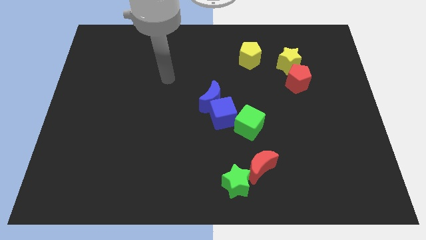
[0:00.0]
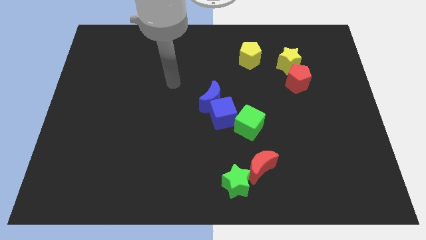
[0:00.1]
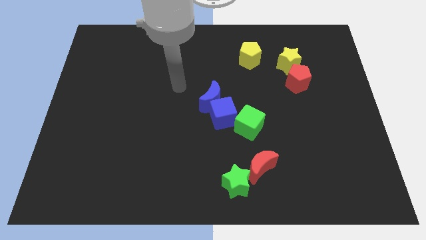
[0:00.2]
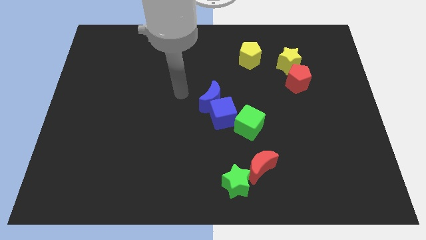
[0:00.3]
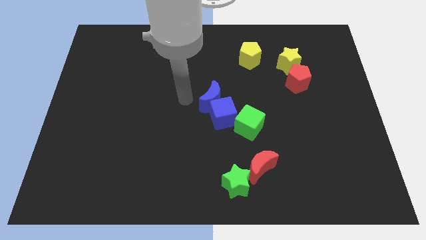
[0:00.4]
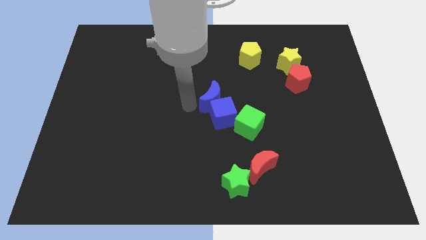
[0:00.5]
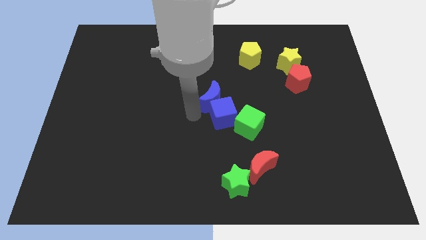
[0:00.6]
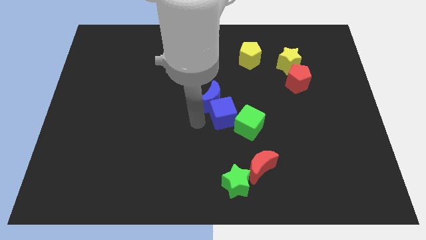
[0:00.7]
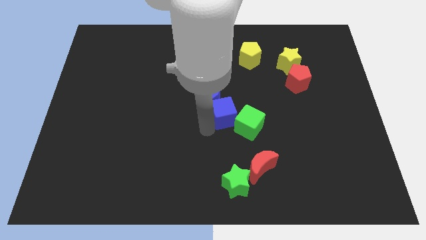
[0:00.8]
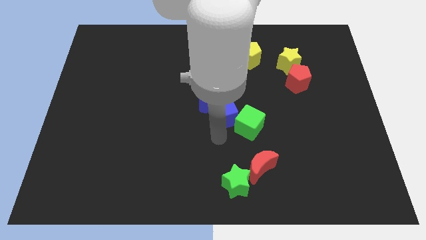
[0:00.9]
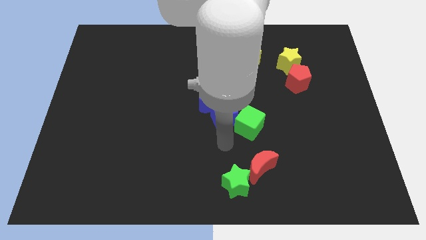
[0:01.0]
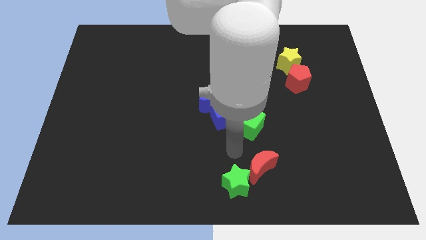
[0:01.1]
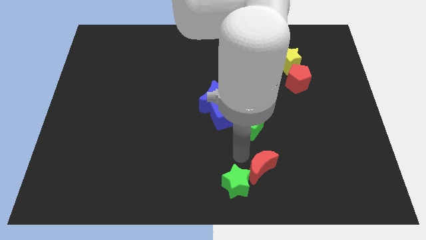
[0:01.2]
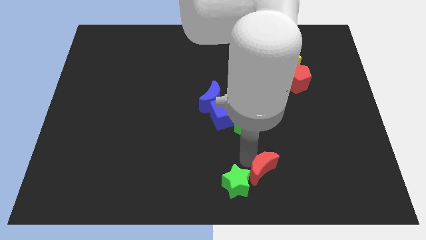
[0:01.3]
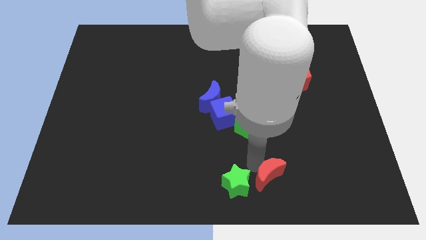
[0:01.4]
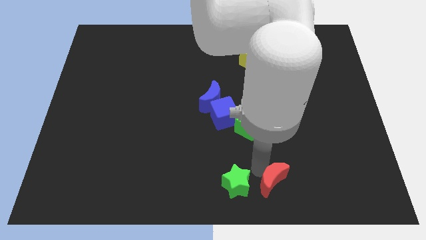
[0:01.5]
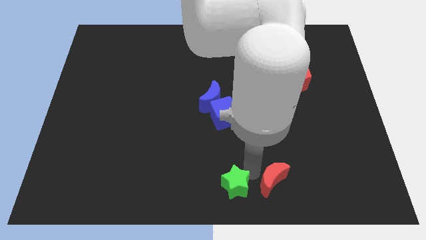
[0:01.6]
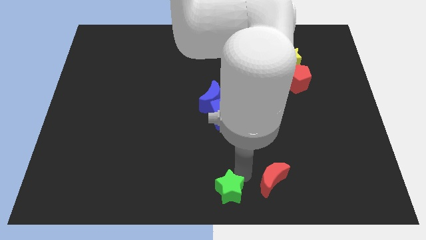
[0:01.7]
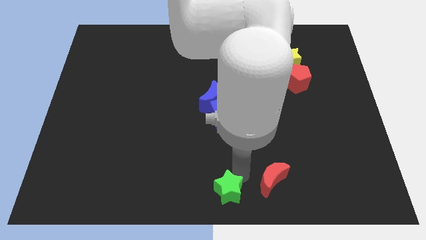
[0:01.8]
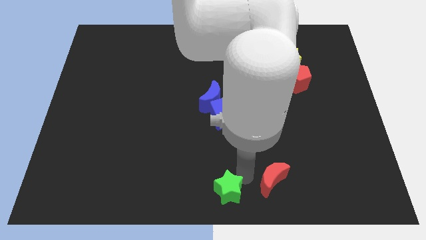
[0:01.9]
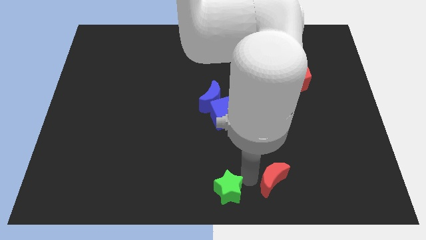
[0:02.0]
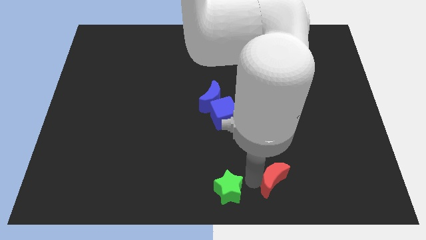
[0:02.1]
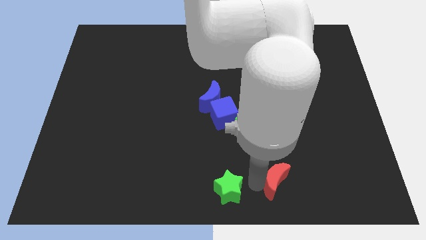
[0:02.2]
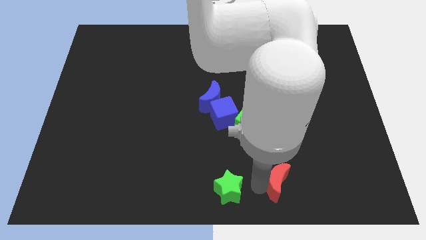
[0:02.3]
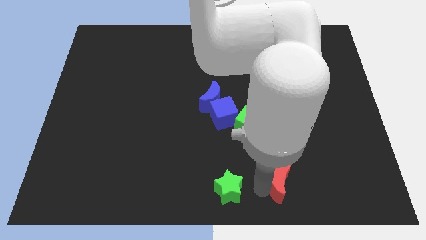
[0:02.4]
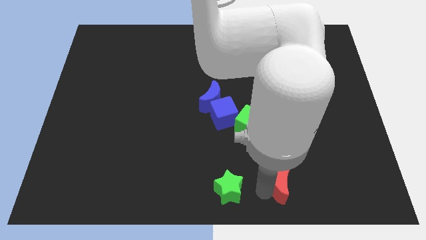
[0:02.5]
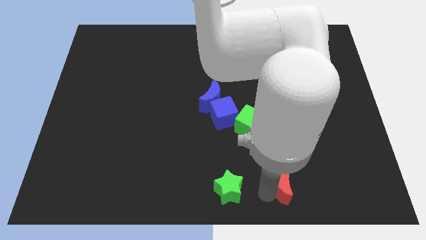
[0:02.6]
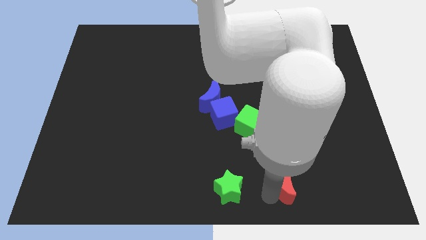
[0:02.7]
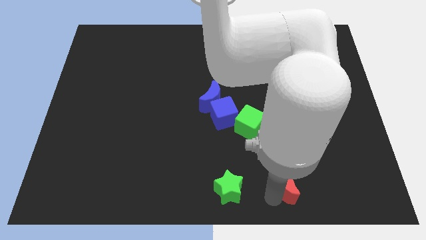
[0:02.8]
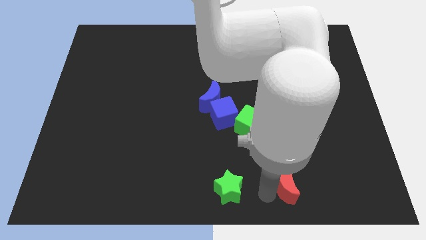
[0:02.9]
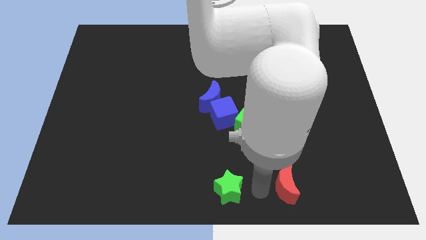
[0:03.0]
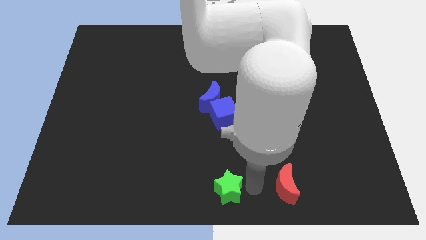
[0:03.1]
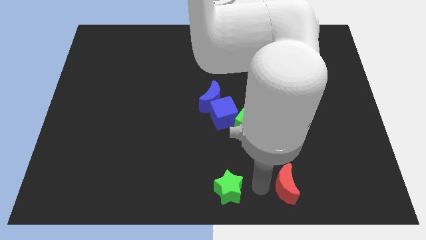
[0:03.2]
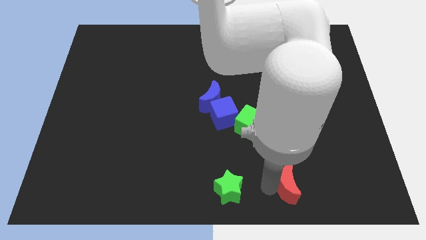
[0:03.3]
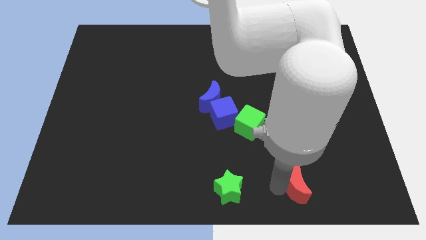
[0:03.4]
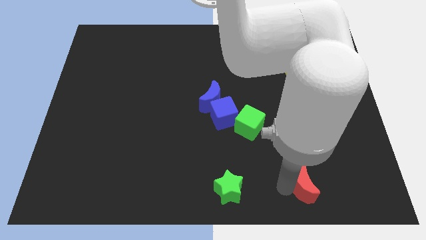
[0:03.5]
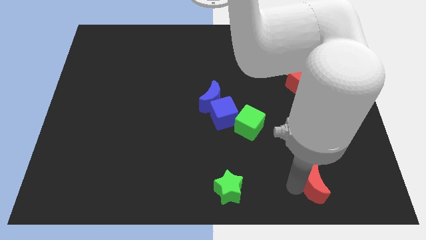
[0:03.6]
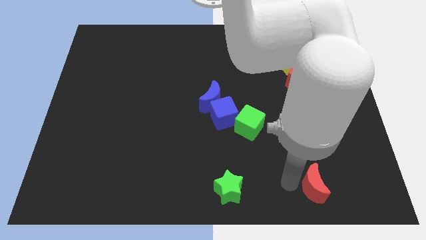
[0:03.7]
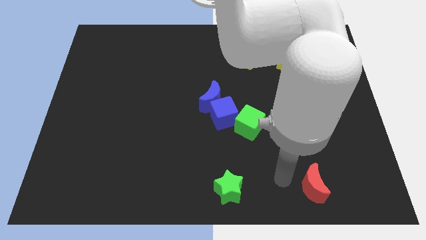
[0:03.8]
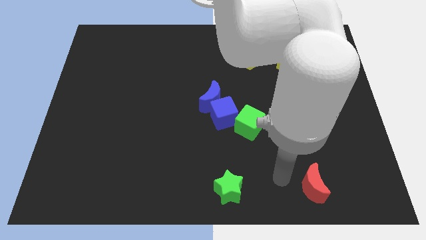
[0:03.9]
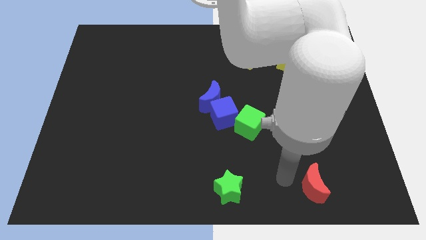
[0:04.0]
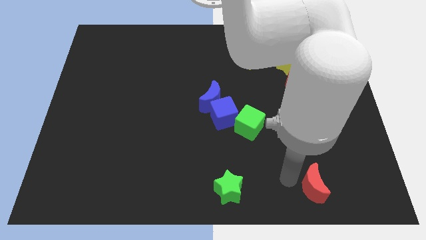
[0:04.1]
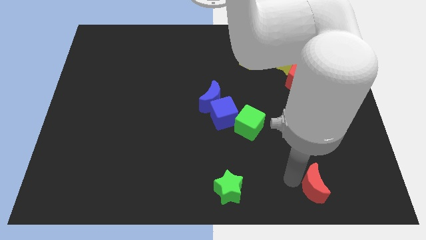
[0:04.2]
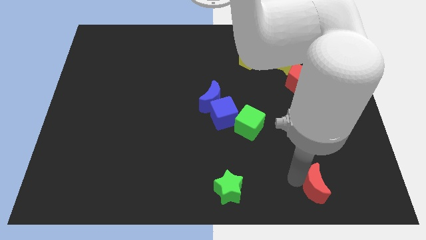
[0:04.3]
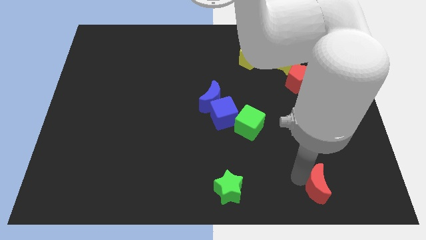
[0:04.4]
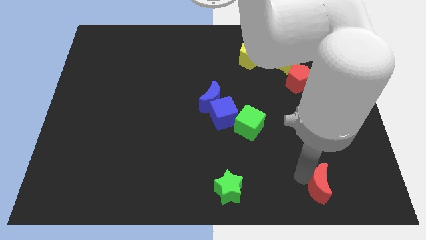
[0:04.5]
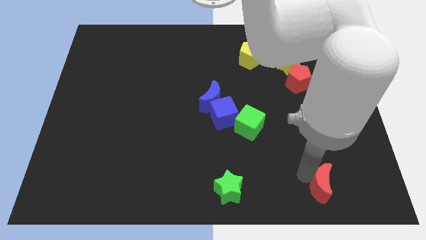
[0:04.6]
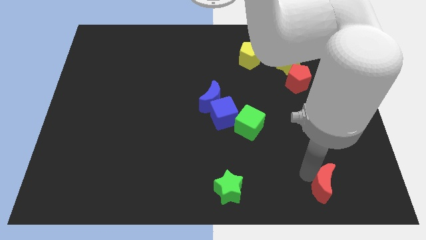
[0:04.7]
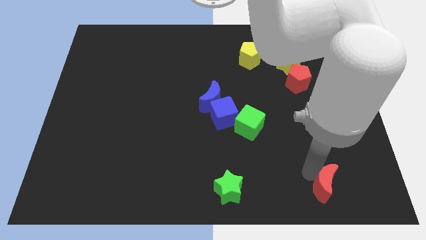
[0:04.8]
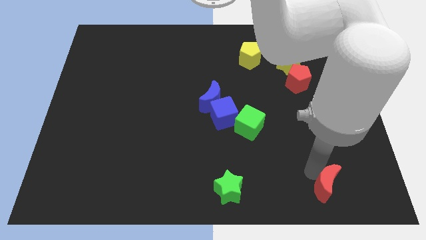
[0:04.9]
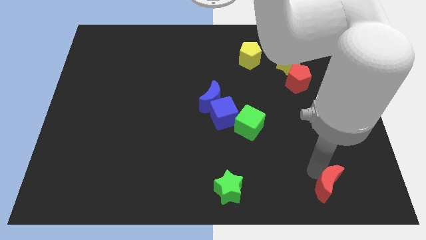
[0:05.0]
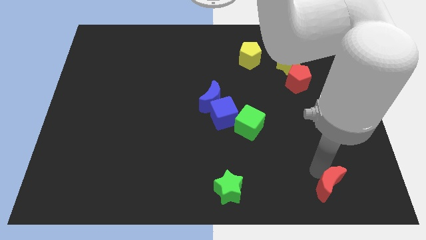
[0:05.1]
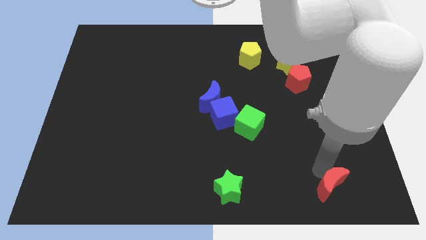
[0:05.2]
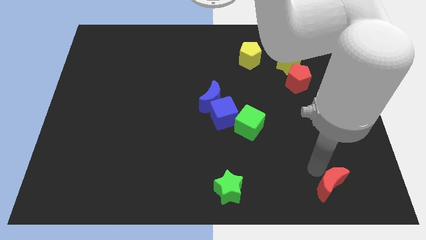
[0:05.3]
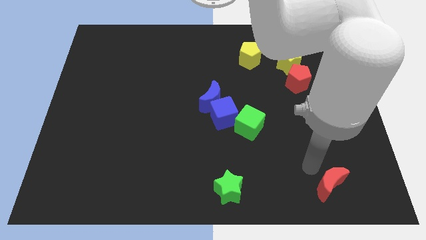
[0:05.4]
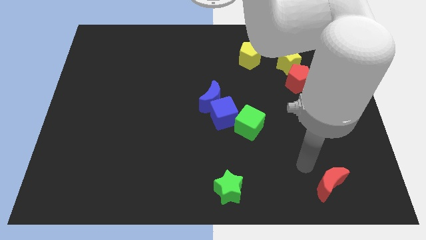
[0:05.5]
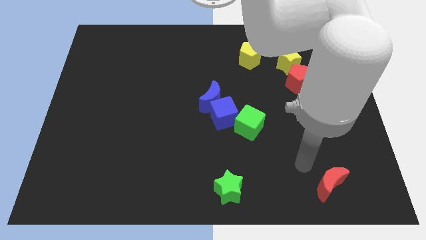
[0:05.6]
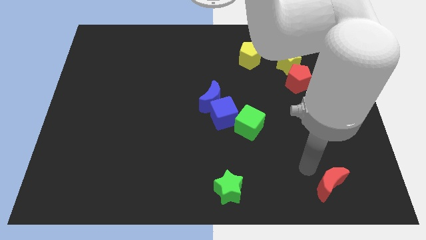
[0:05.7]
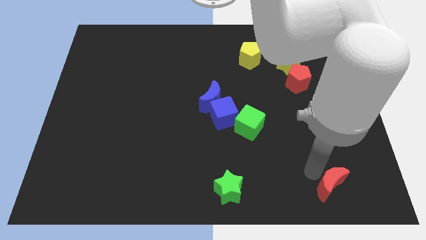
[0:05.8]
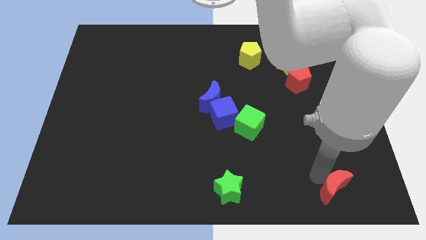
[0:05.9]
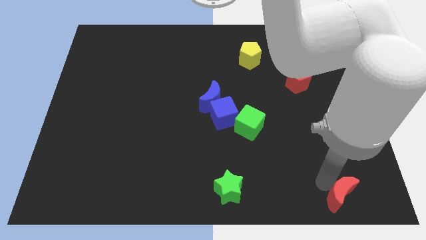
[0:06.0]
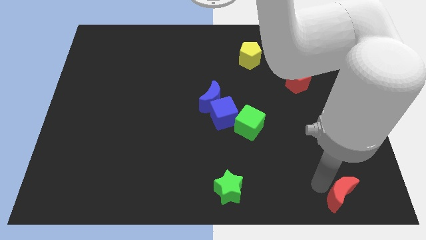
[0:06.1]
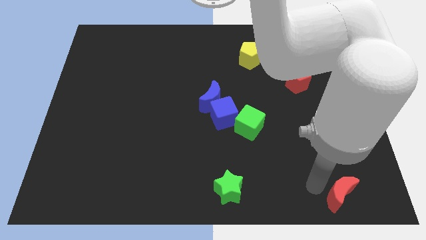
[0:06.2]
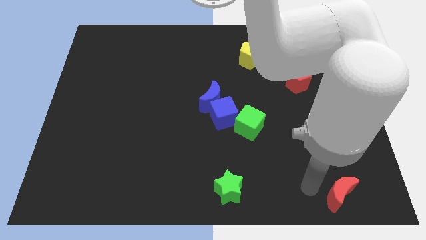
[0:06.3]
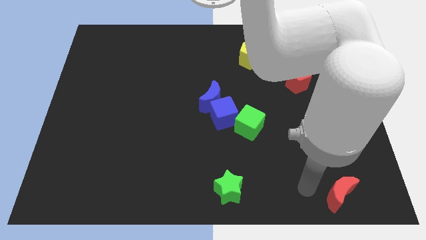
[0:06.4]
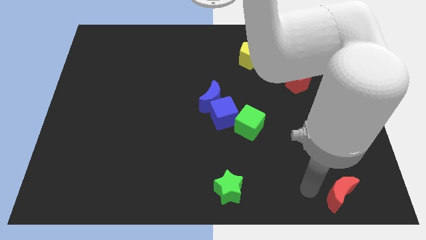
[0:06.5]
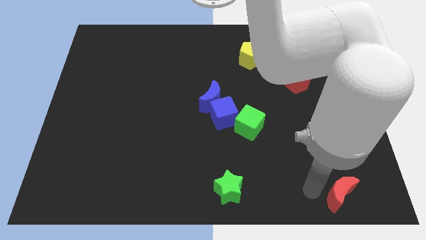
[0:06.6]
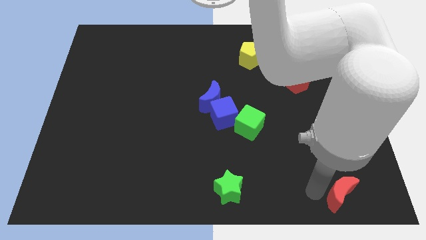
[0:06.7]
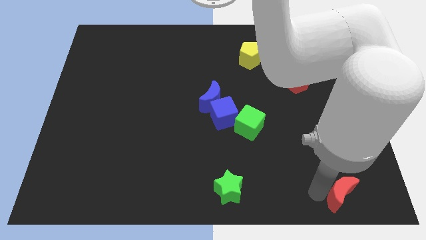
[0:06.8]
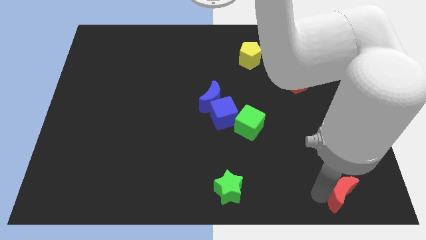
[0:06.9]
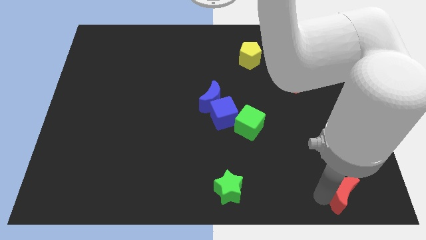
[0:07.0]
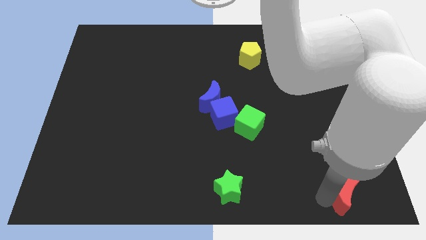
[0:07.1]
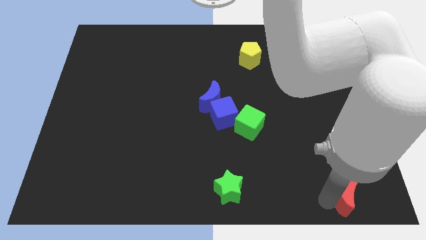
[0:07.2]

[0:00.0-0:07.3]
move the red moon to the lower right corner
